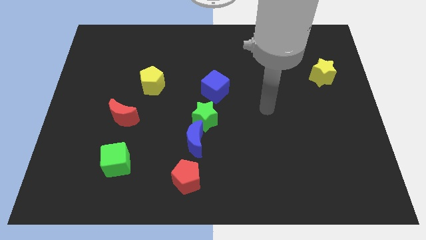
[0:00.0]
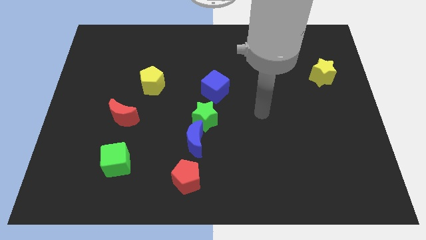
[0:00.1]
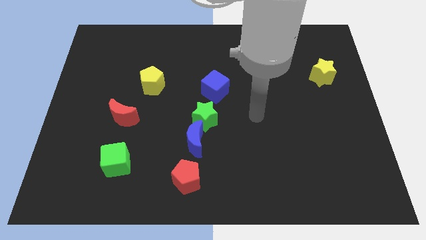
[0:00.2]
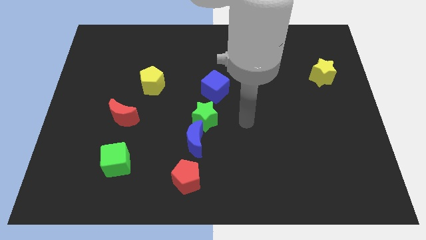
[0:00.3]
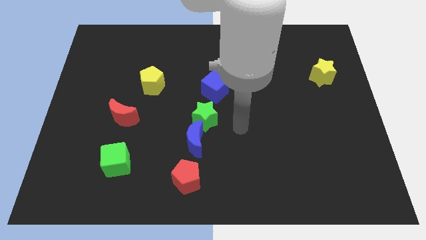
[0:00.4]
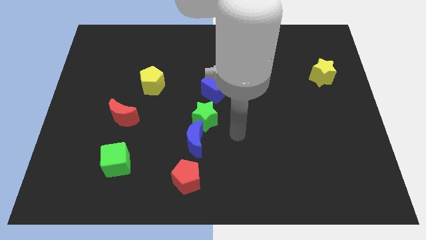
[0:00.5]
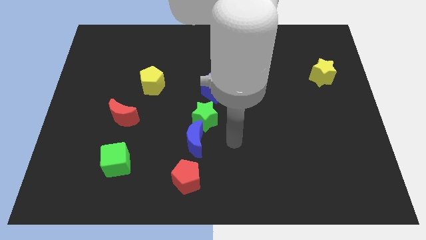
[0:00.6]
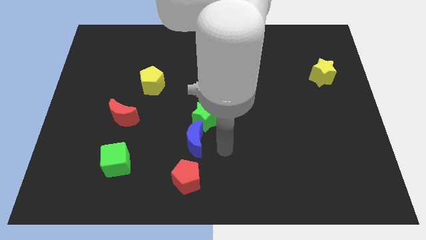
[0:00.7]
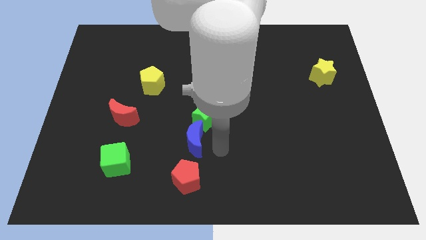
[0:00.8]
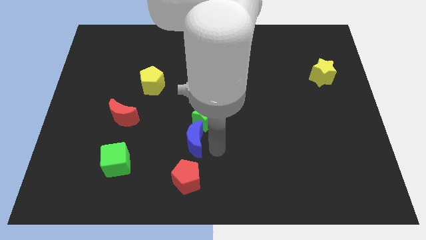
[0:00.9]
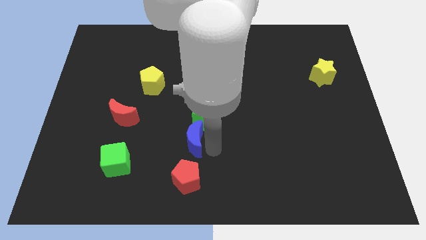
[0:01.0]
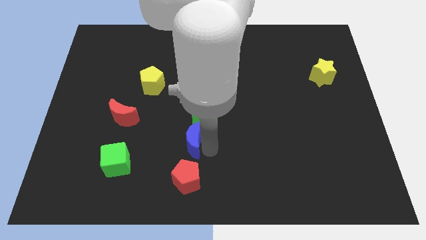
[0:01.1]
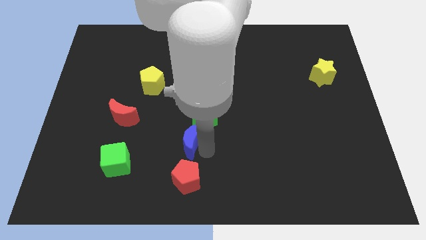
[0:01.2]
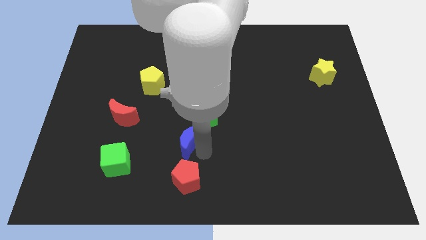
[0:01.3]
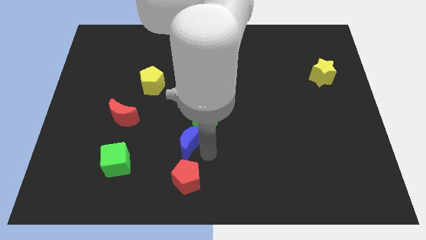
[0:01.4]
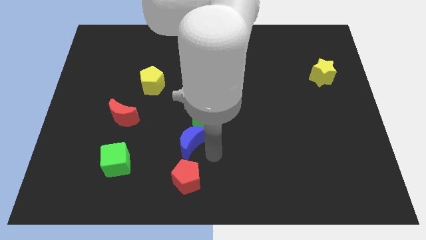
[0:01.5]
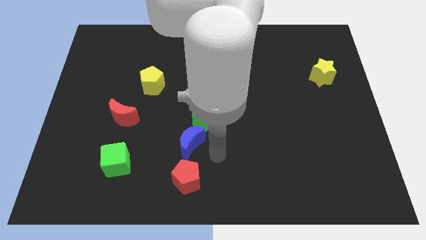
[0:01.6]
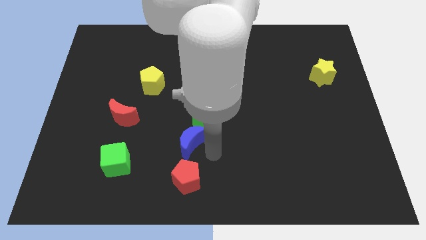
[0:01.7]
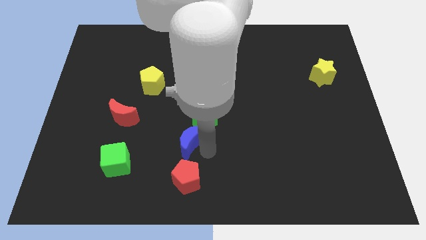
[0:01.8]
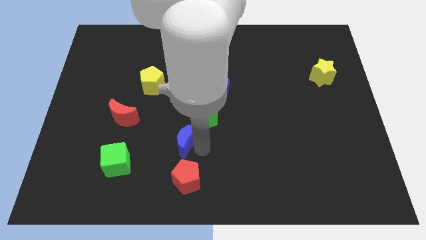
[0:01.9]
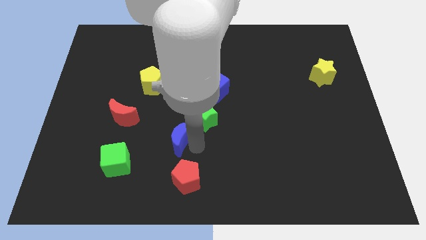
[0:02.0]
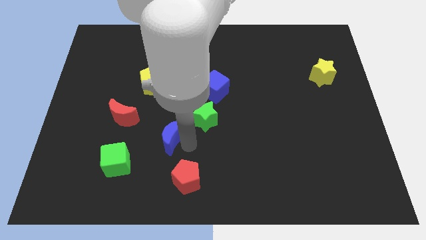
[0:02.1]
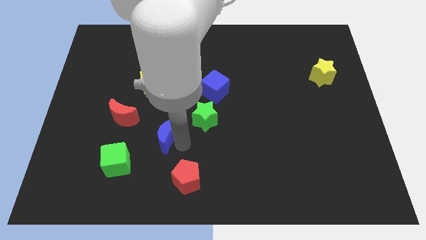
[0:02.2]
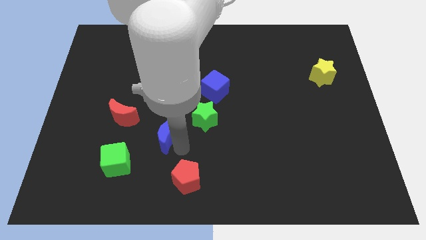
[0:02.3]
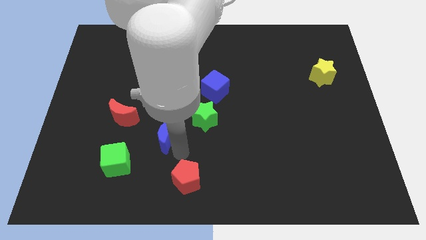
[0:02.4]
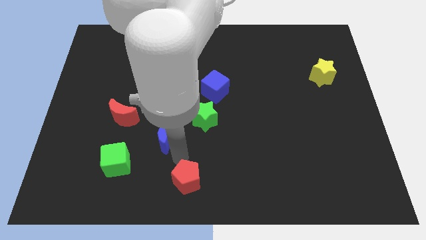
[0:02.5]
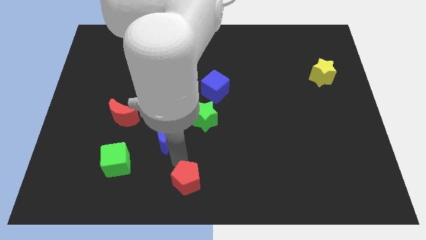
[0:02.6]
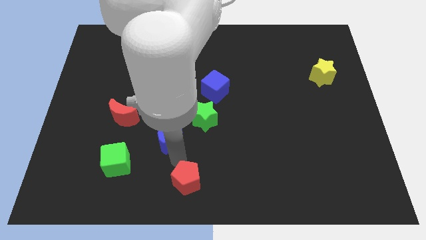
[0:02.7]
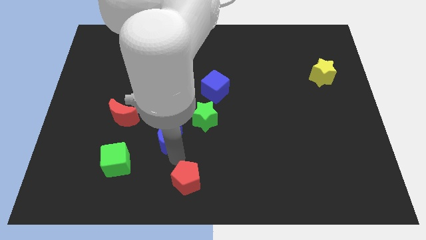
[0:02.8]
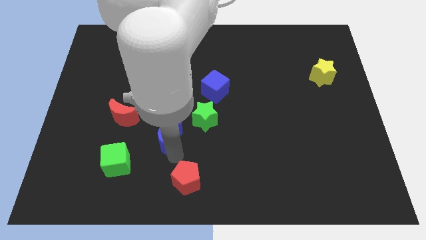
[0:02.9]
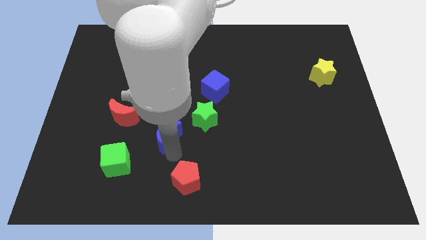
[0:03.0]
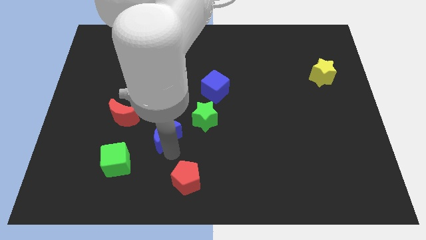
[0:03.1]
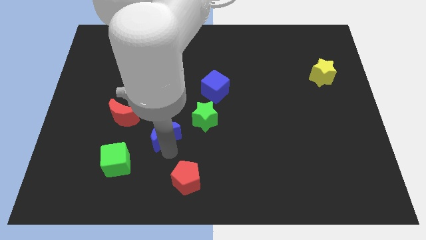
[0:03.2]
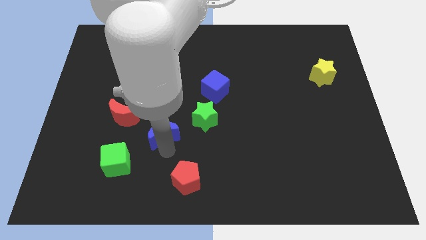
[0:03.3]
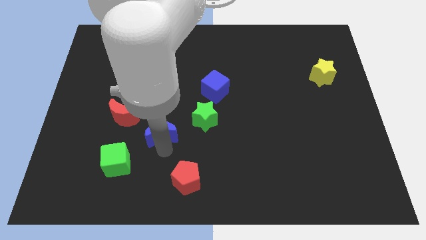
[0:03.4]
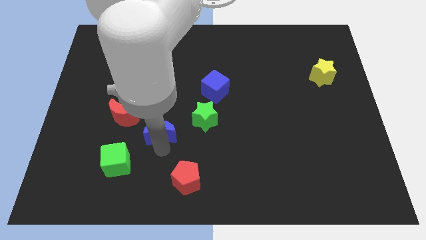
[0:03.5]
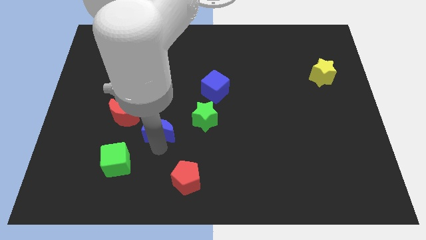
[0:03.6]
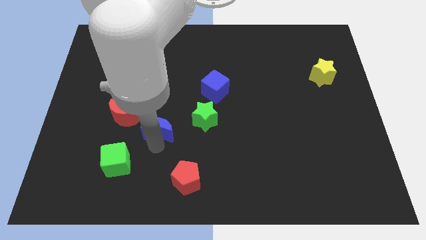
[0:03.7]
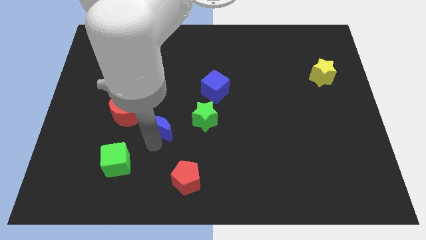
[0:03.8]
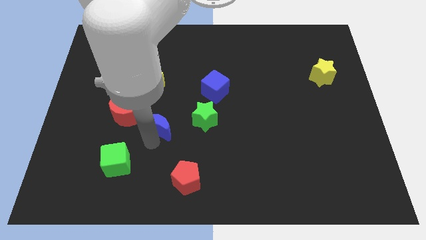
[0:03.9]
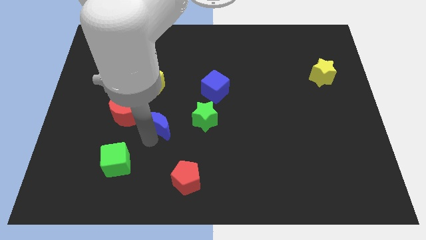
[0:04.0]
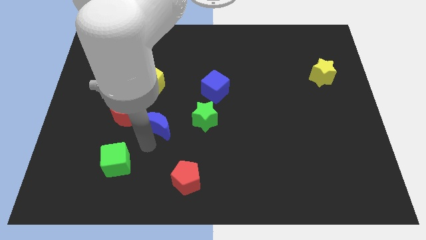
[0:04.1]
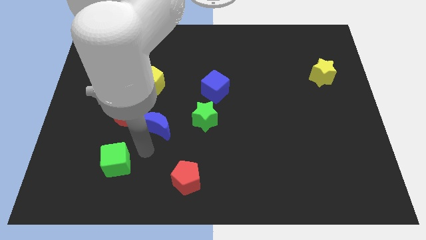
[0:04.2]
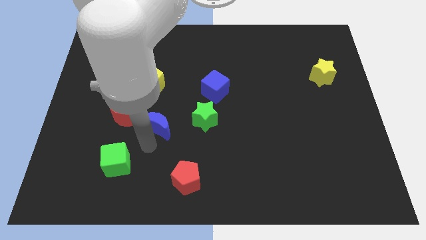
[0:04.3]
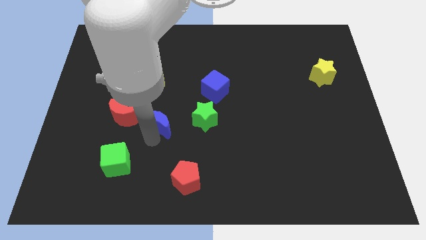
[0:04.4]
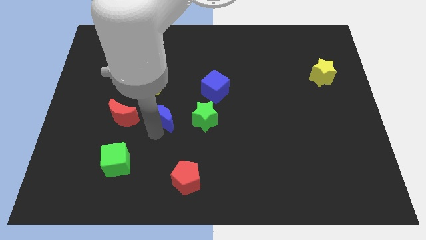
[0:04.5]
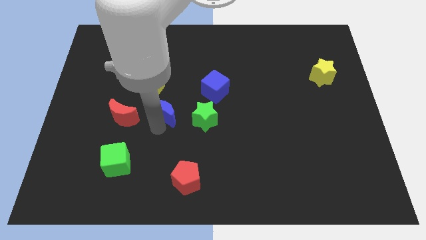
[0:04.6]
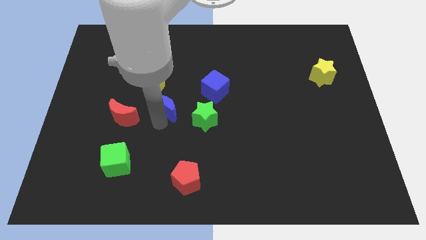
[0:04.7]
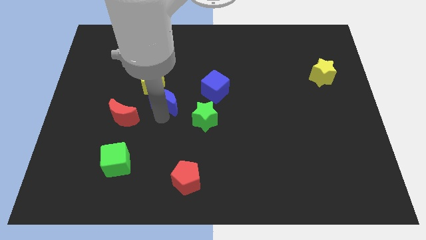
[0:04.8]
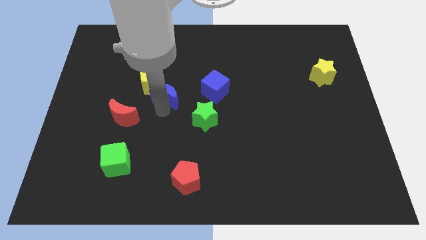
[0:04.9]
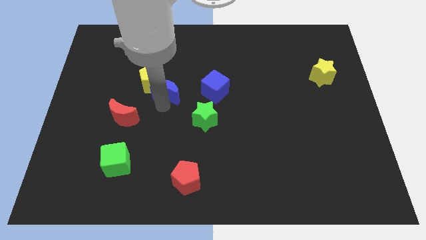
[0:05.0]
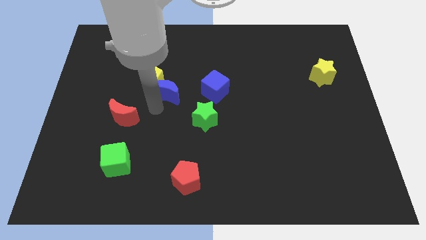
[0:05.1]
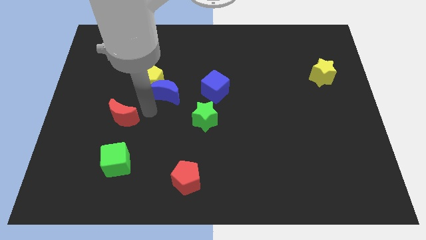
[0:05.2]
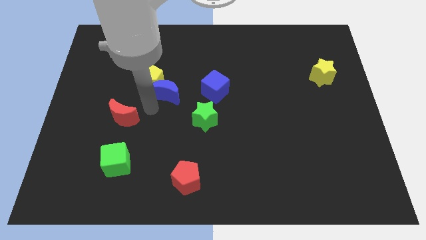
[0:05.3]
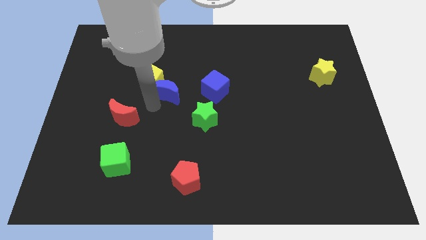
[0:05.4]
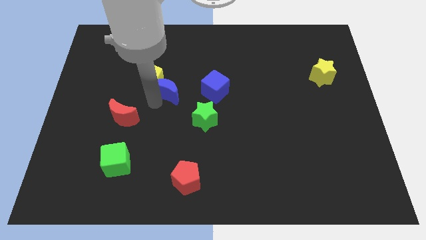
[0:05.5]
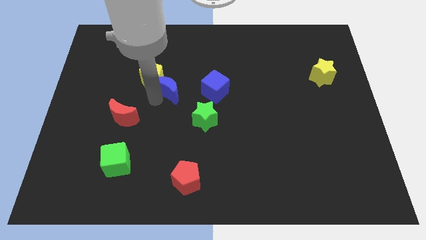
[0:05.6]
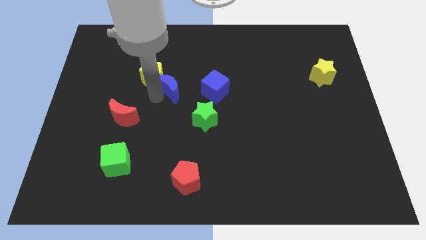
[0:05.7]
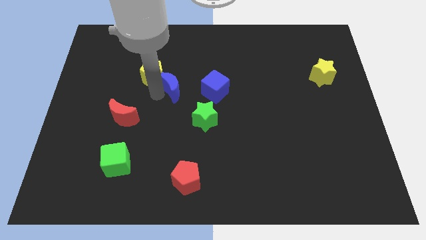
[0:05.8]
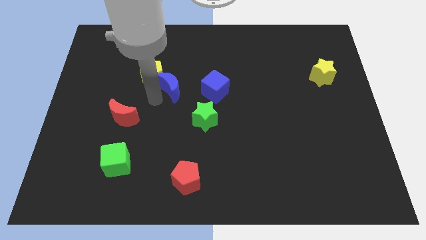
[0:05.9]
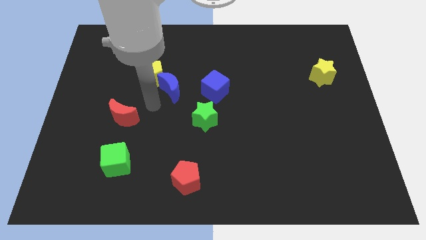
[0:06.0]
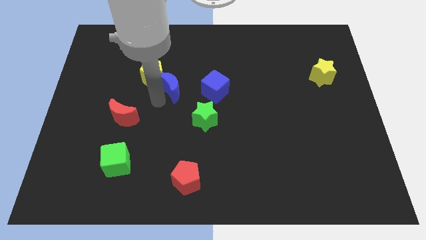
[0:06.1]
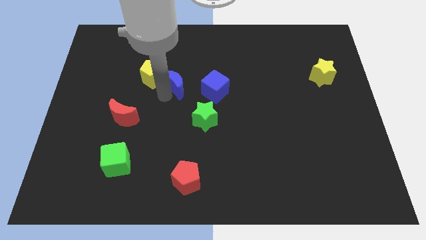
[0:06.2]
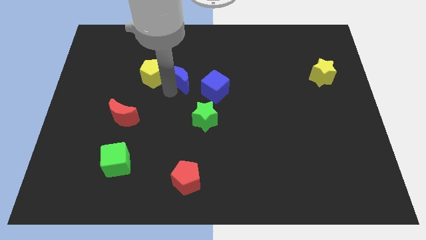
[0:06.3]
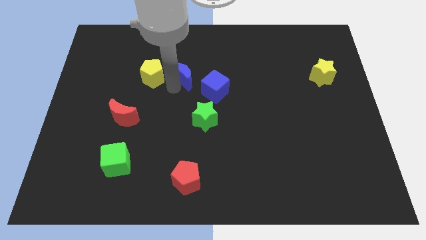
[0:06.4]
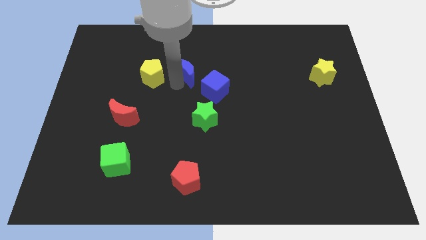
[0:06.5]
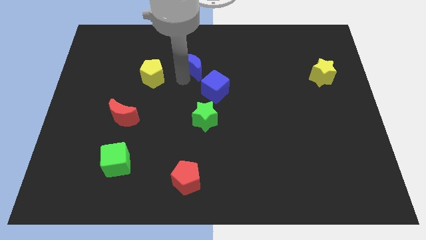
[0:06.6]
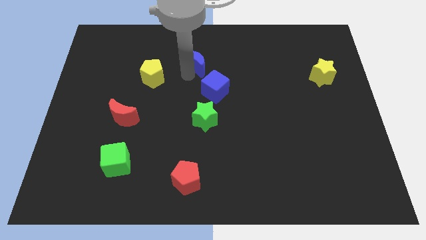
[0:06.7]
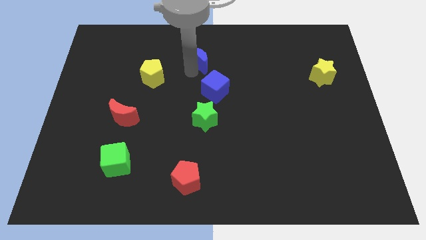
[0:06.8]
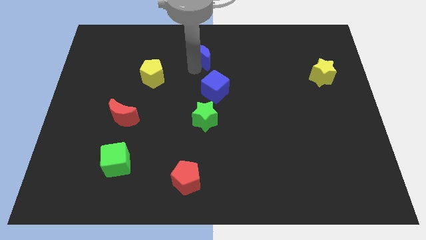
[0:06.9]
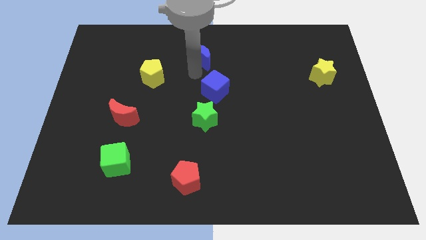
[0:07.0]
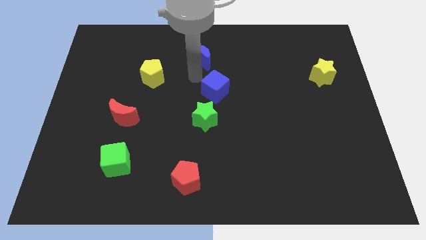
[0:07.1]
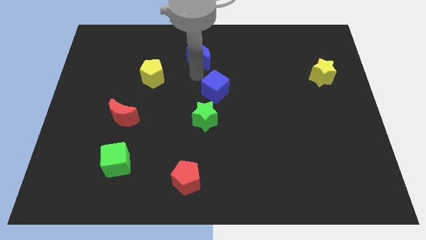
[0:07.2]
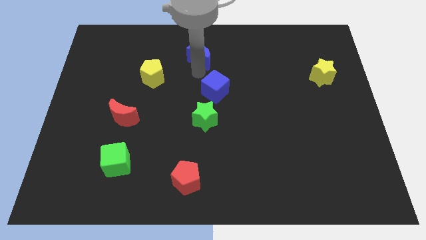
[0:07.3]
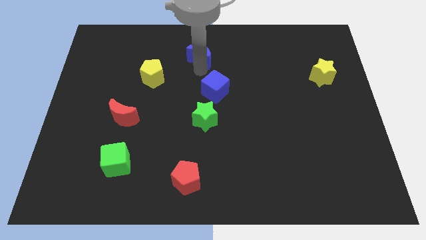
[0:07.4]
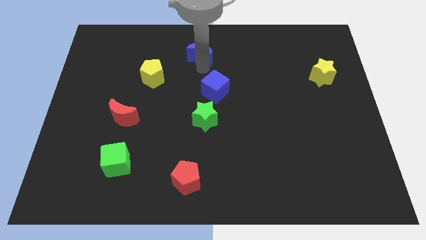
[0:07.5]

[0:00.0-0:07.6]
slide the blue moon to the towards your base
